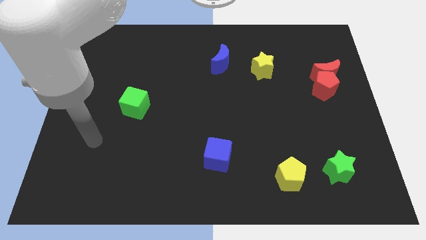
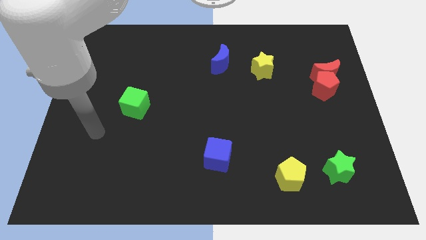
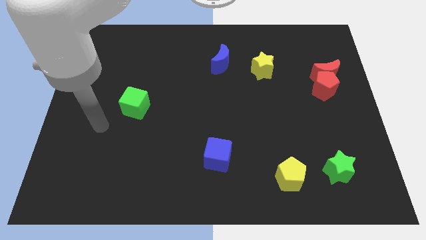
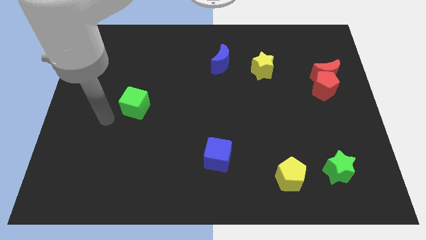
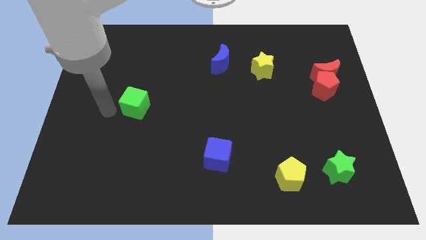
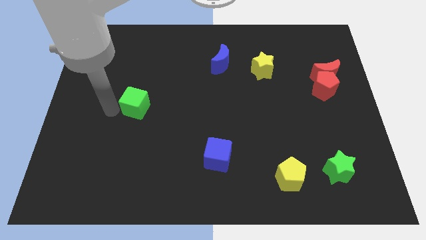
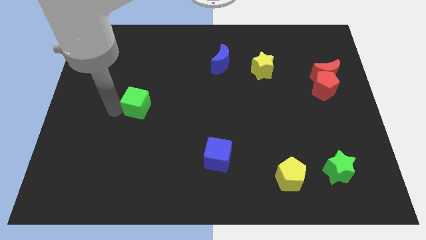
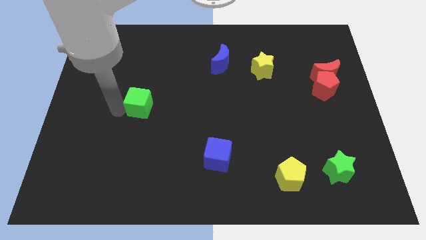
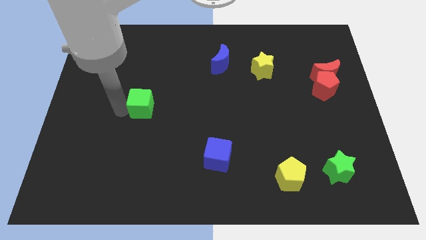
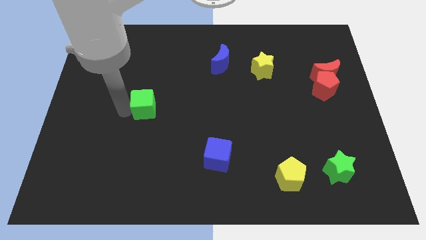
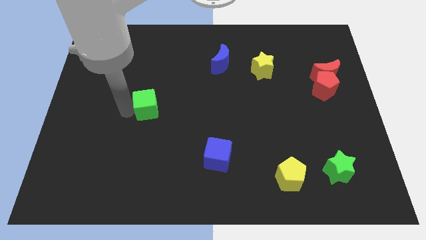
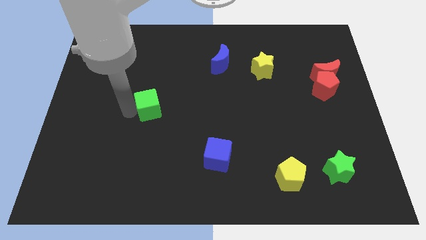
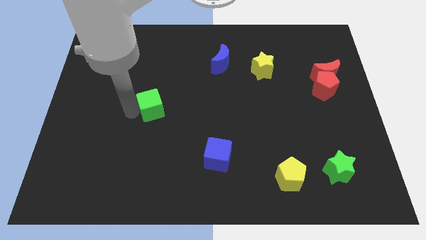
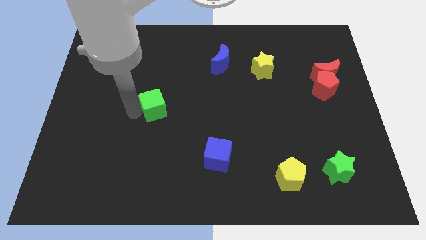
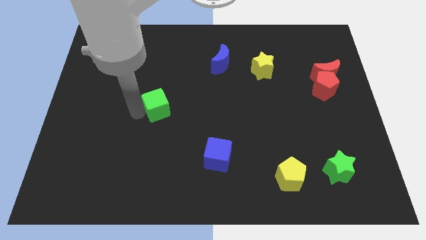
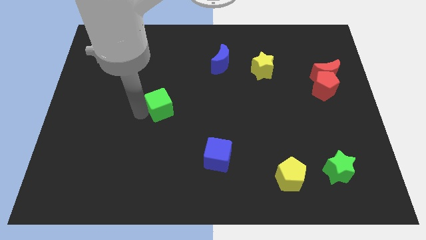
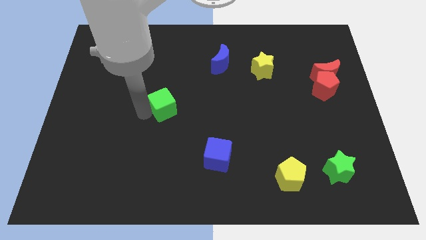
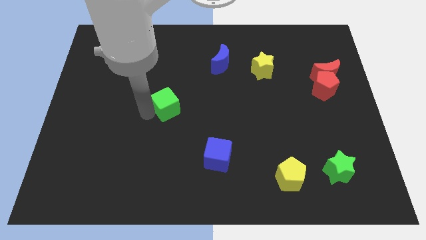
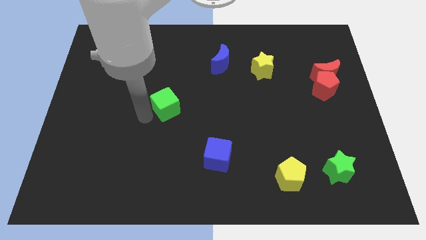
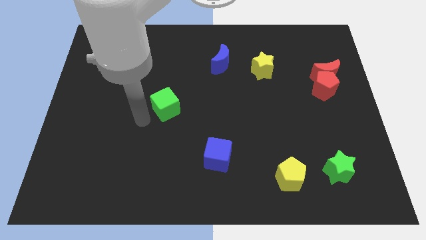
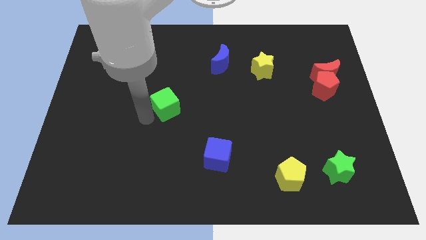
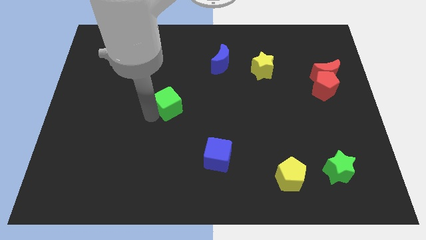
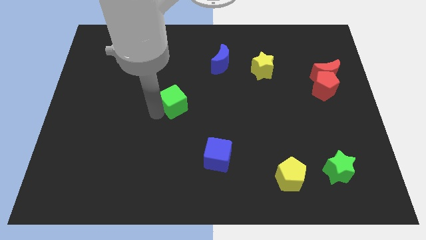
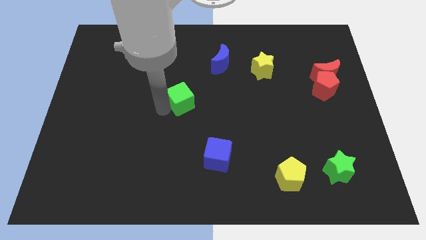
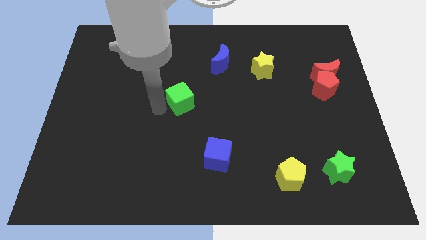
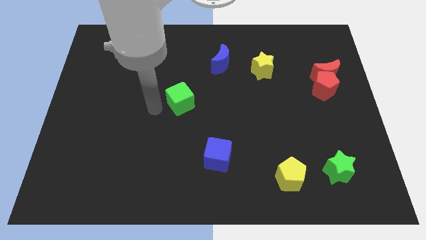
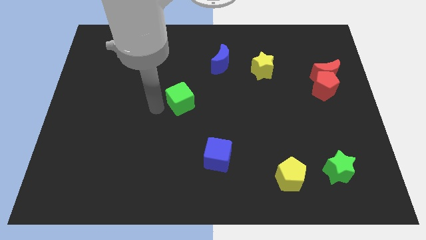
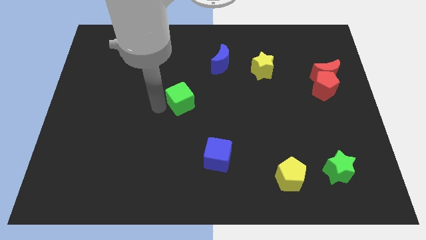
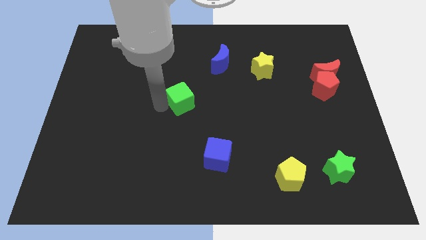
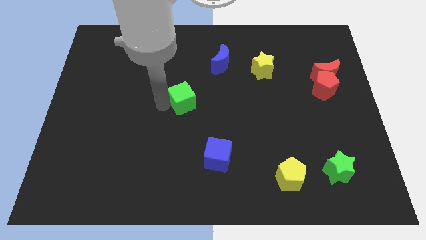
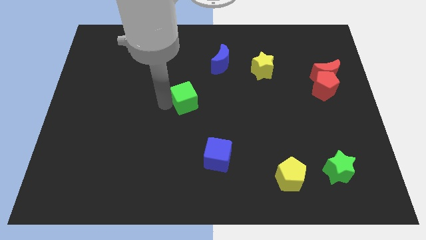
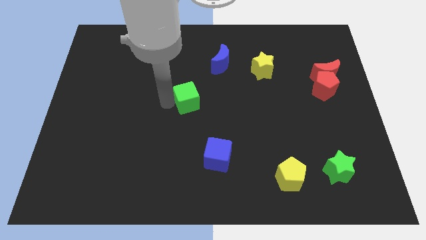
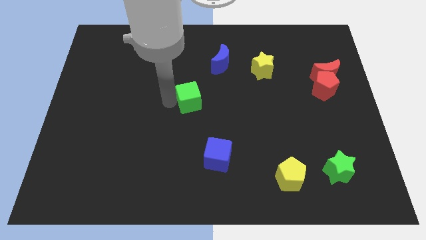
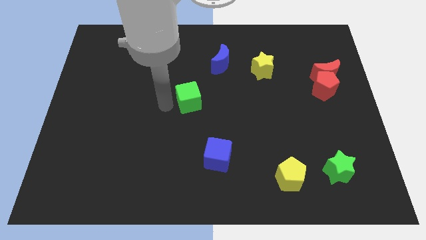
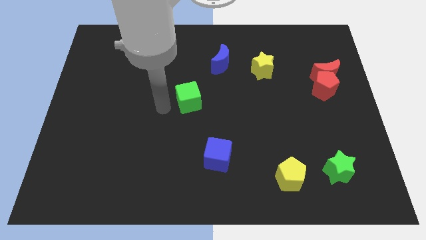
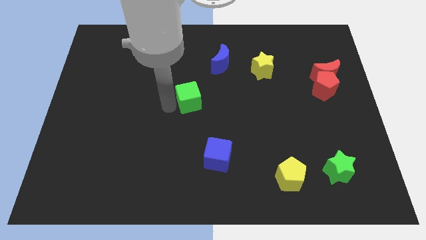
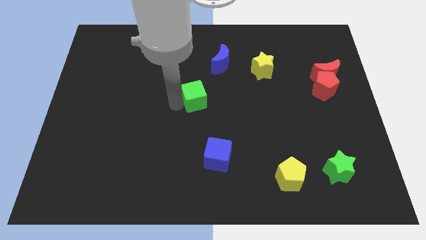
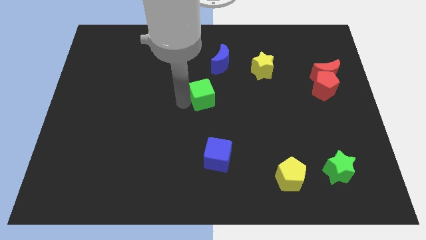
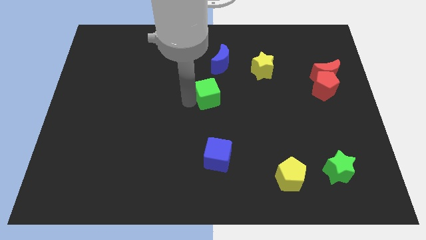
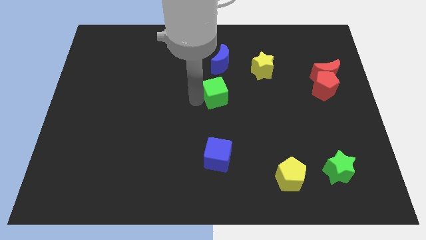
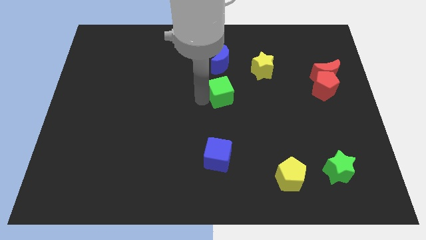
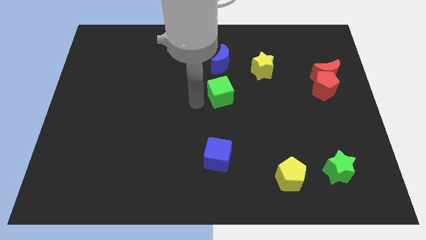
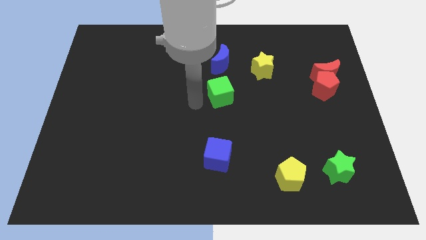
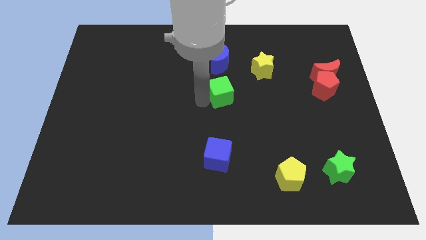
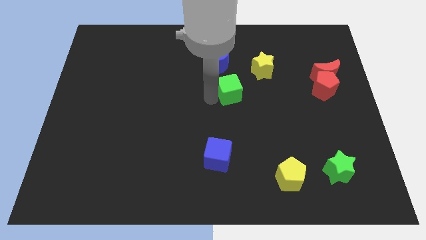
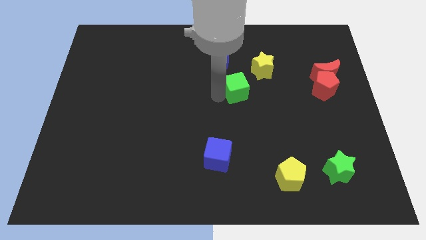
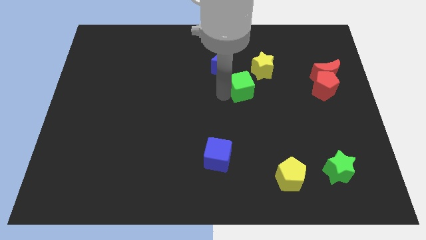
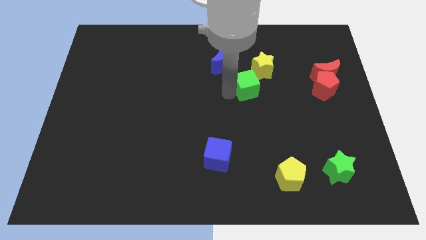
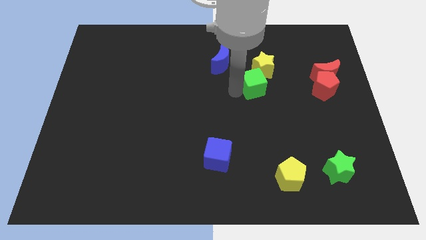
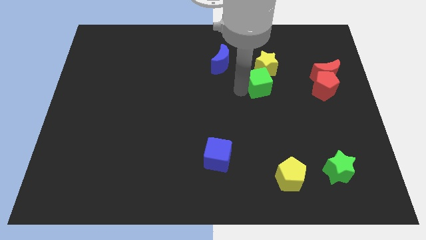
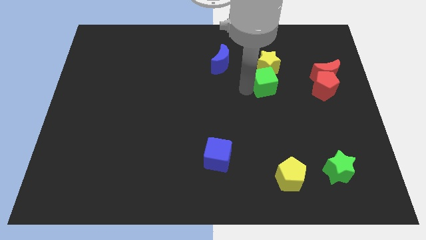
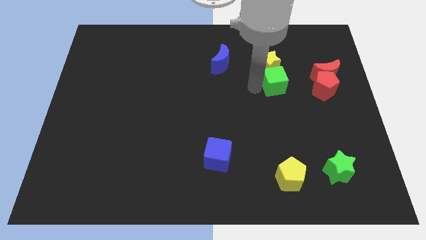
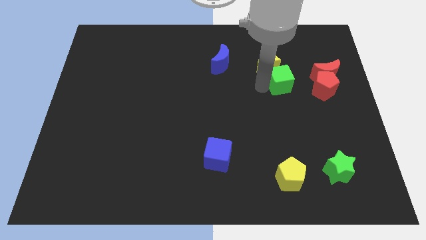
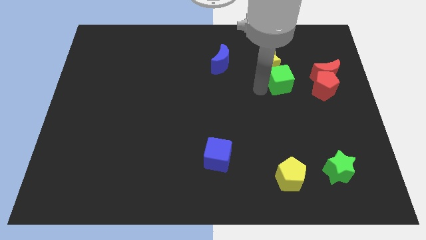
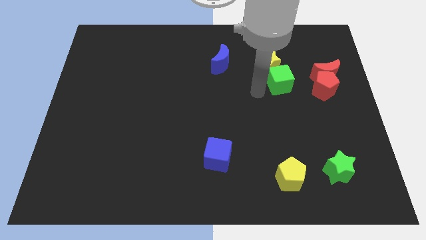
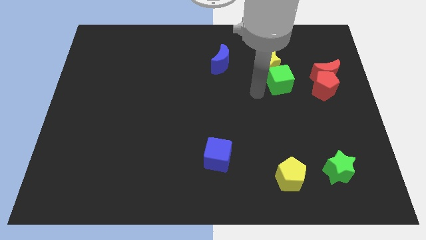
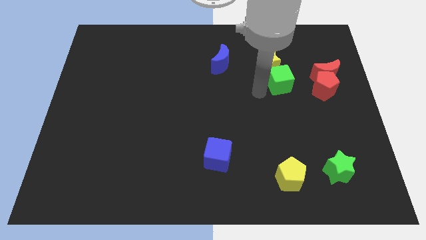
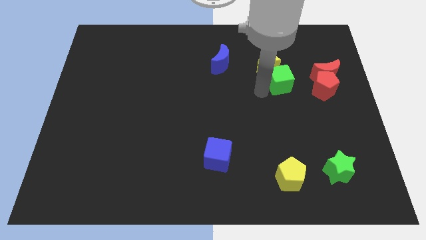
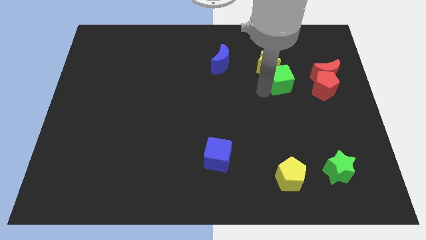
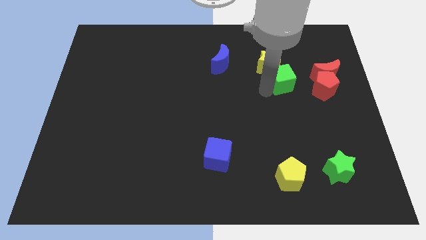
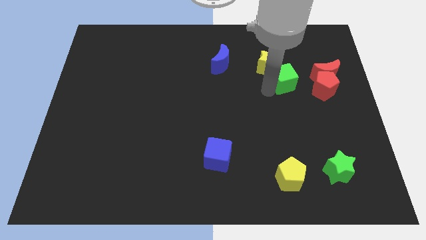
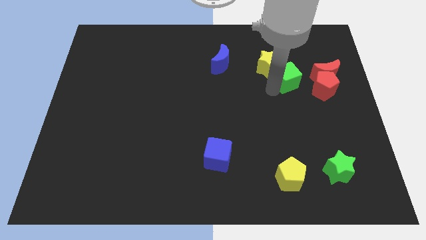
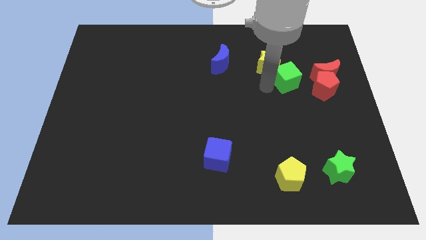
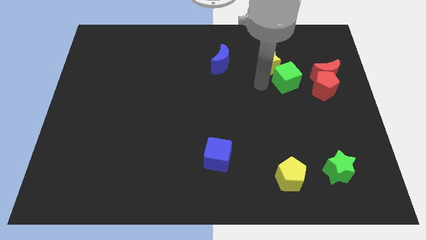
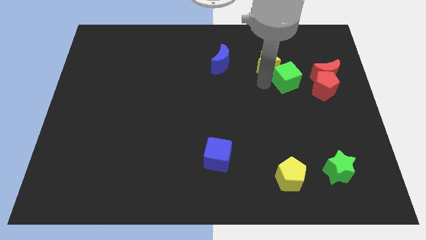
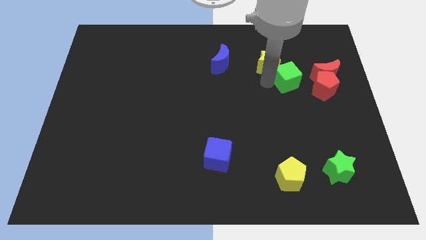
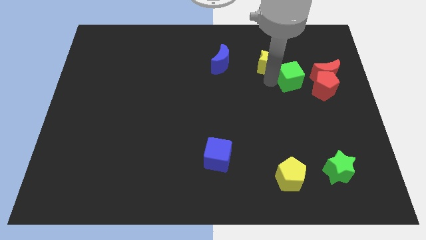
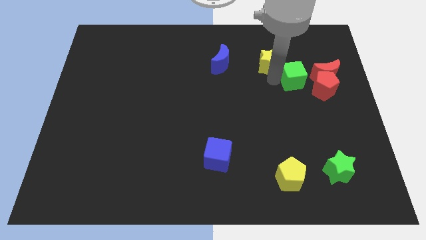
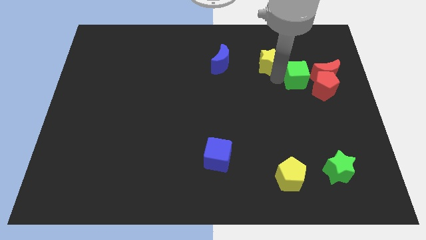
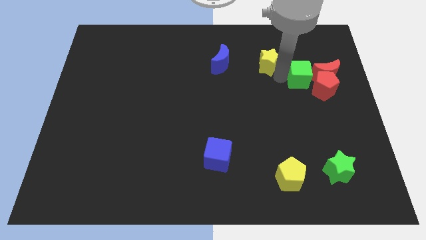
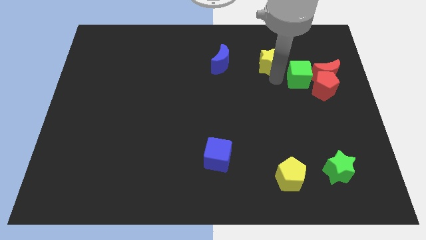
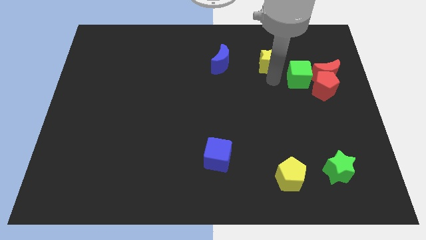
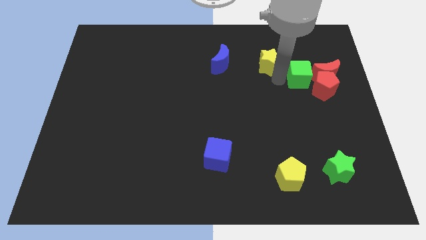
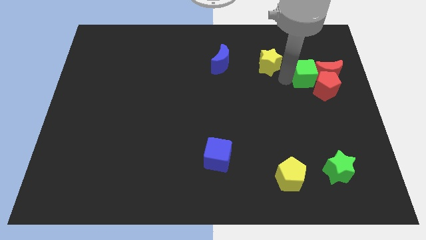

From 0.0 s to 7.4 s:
put the green cube to the red moon
